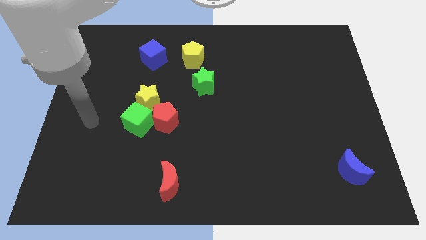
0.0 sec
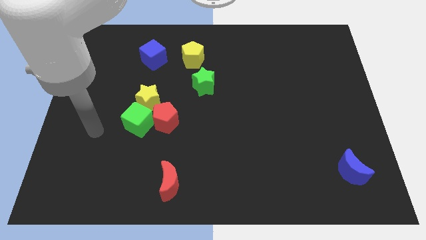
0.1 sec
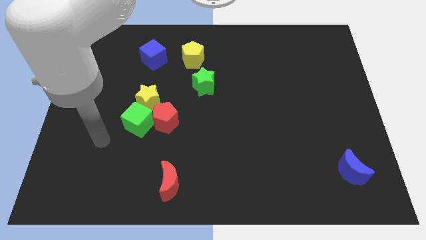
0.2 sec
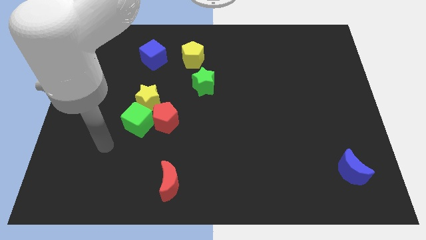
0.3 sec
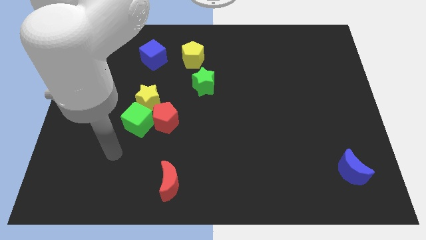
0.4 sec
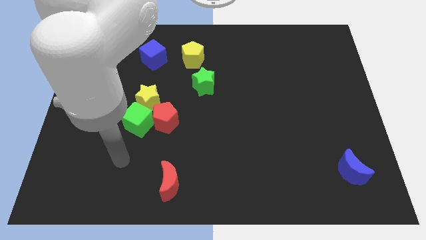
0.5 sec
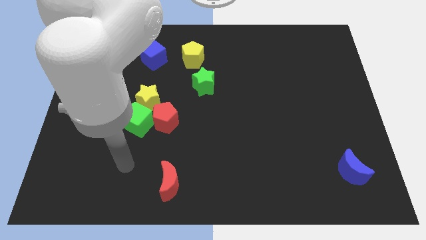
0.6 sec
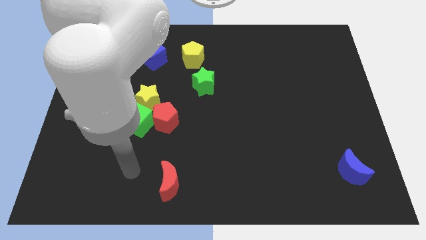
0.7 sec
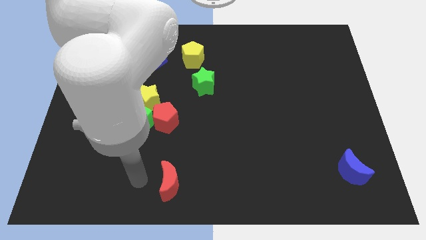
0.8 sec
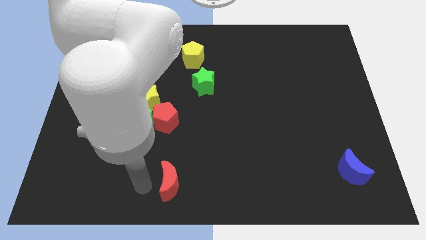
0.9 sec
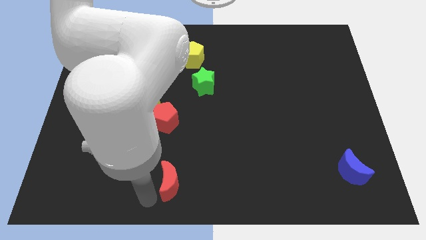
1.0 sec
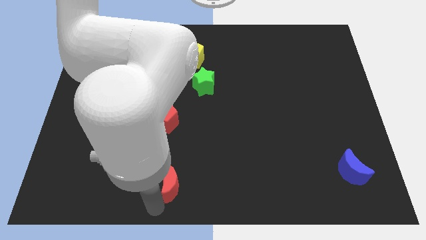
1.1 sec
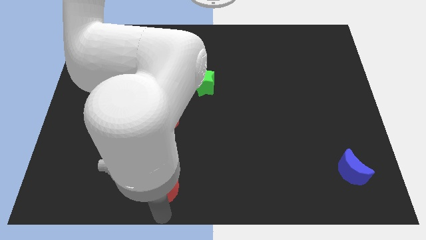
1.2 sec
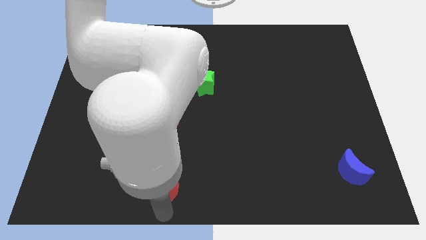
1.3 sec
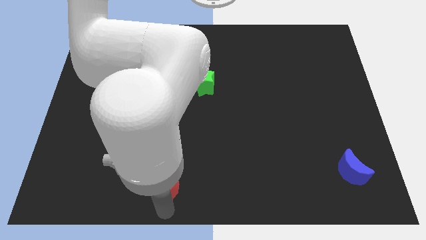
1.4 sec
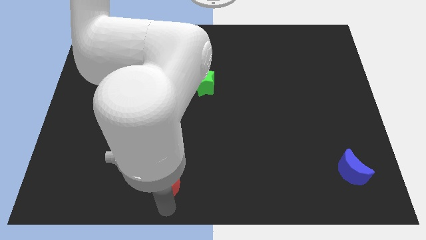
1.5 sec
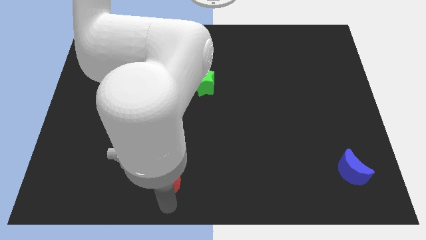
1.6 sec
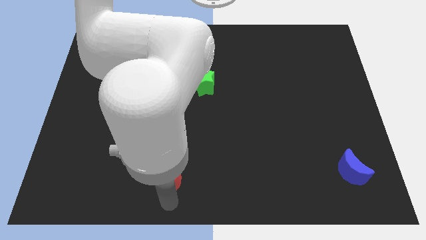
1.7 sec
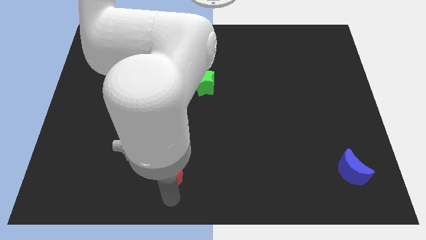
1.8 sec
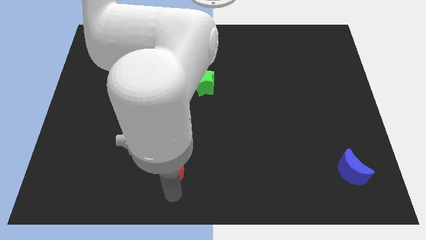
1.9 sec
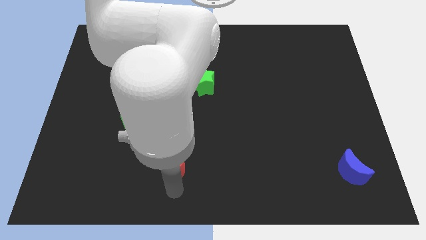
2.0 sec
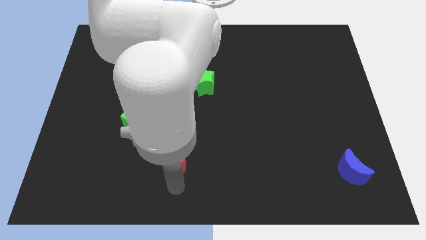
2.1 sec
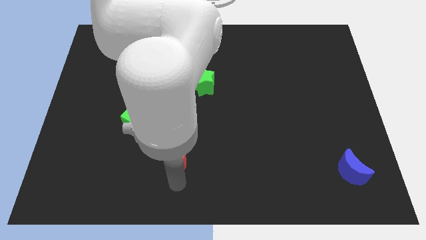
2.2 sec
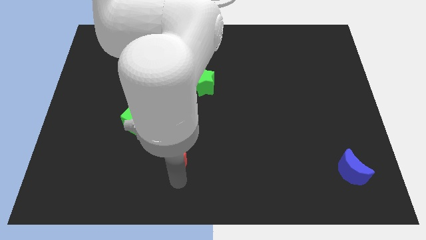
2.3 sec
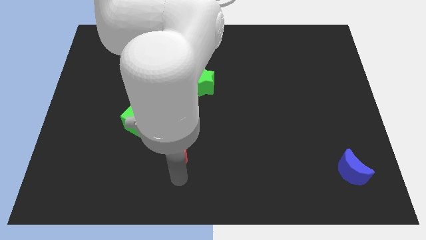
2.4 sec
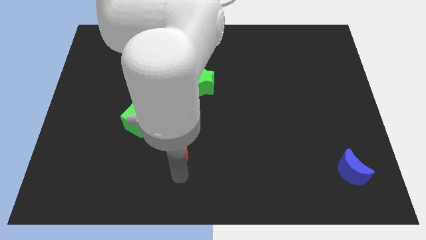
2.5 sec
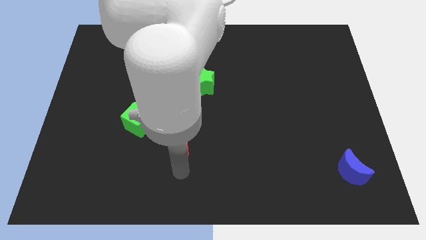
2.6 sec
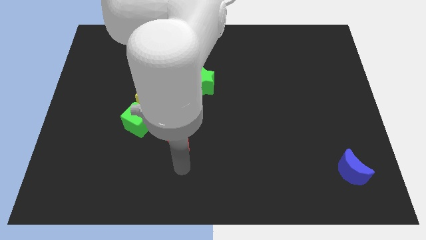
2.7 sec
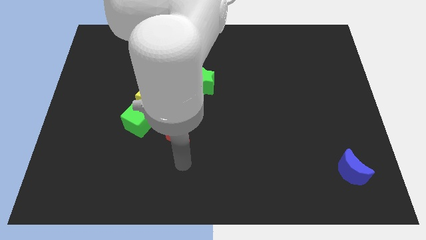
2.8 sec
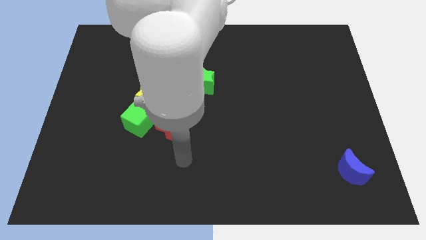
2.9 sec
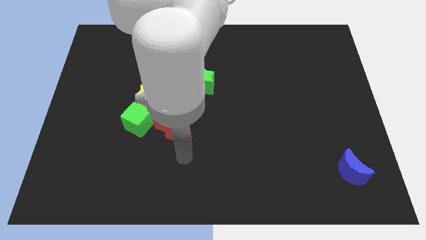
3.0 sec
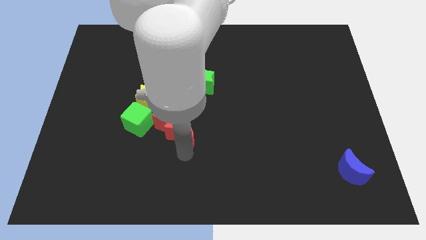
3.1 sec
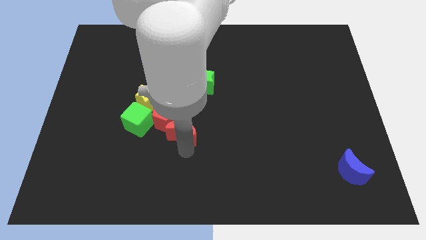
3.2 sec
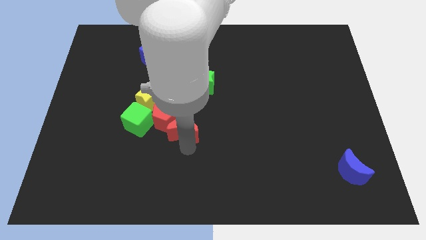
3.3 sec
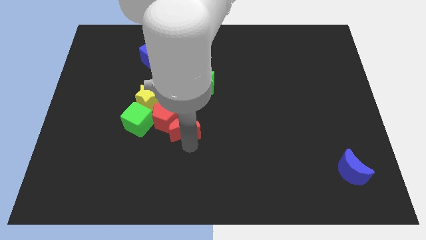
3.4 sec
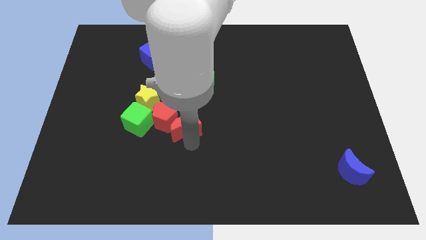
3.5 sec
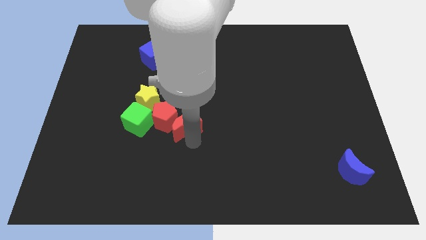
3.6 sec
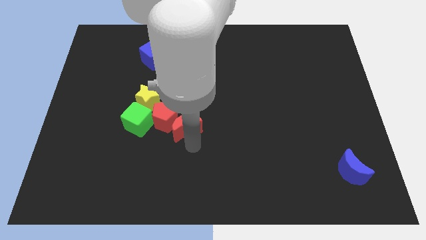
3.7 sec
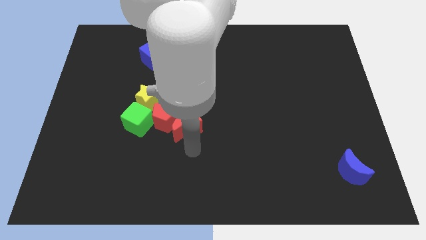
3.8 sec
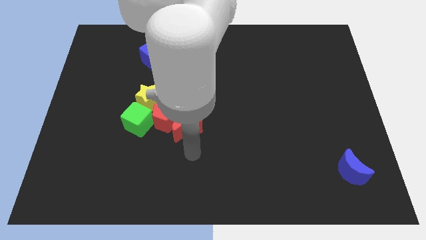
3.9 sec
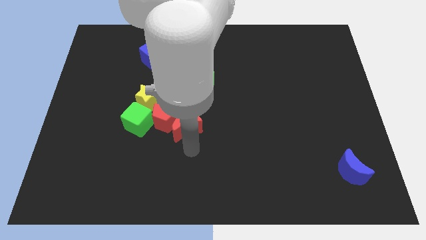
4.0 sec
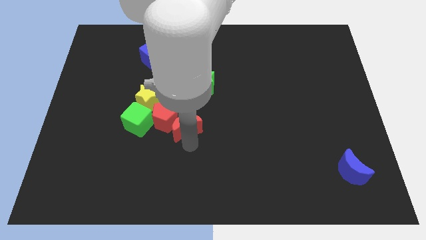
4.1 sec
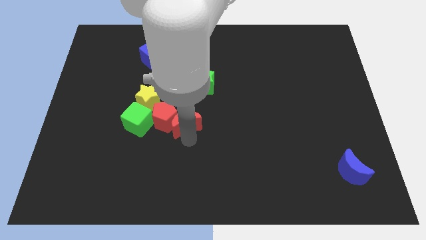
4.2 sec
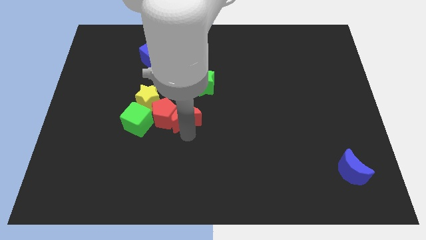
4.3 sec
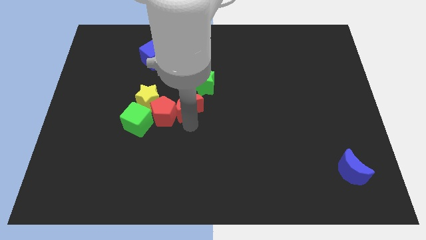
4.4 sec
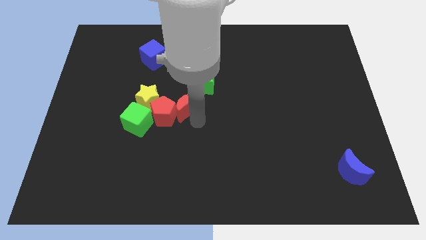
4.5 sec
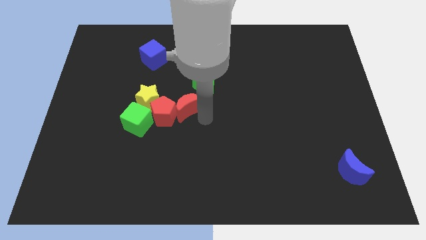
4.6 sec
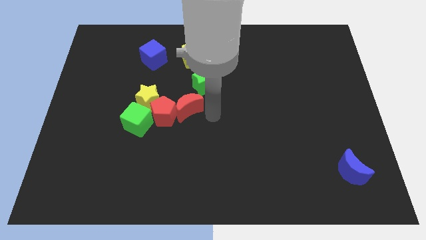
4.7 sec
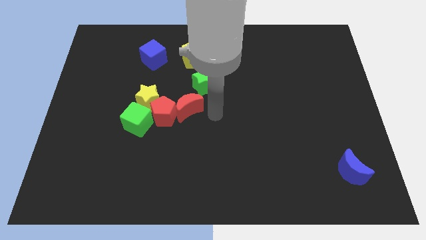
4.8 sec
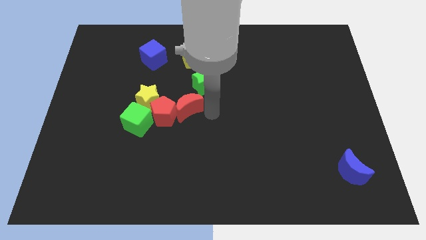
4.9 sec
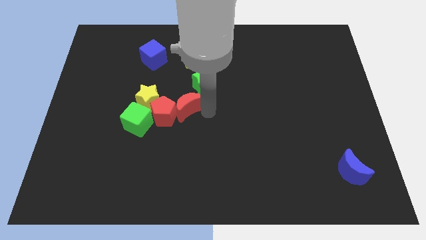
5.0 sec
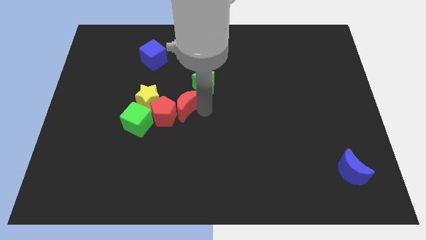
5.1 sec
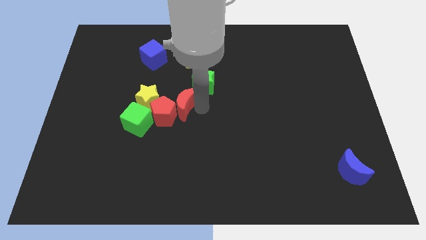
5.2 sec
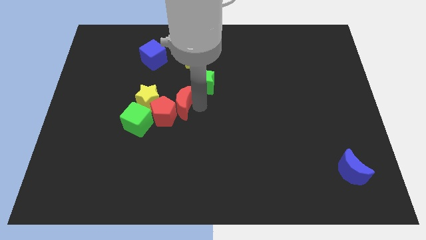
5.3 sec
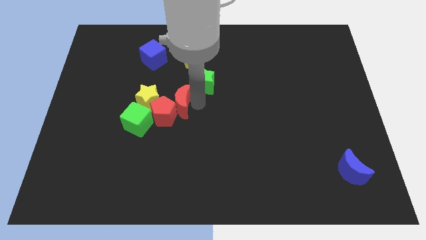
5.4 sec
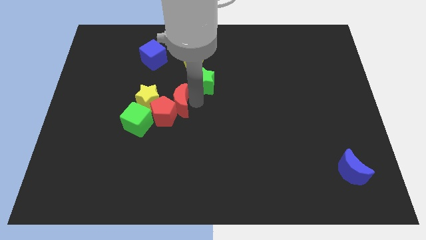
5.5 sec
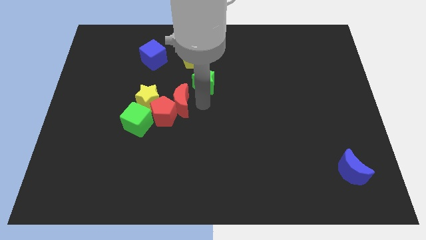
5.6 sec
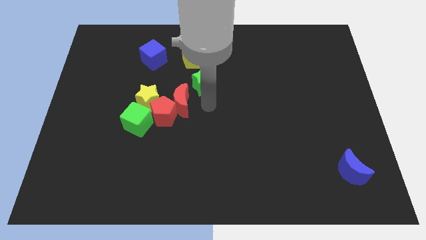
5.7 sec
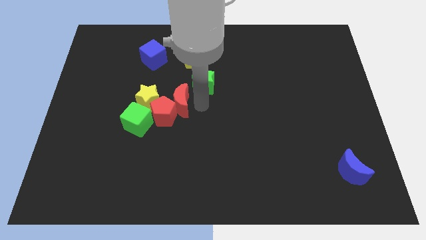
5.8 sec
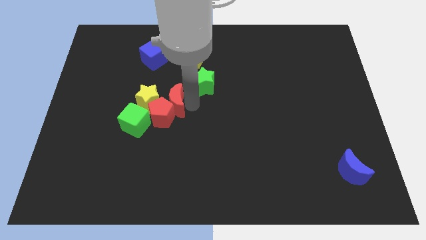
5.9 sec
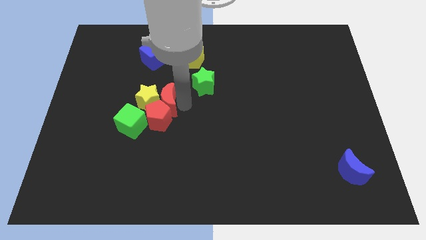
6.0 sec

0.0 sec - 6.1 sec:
push the red moon close to the yellow star

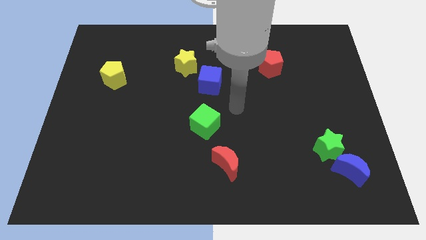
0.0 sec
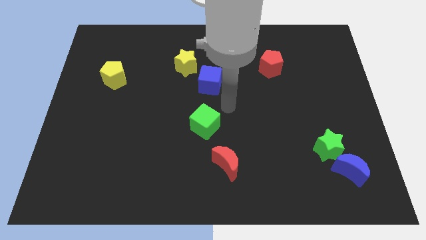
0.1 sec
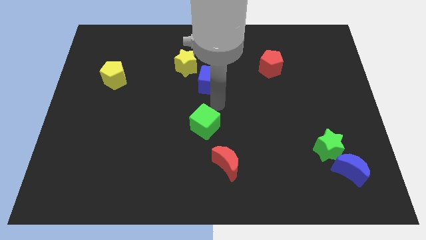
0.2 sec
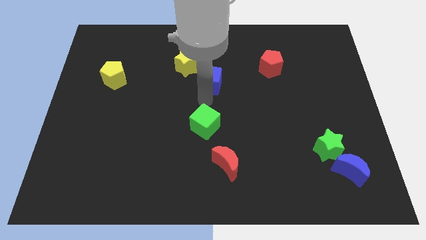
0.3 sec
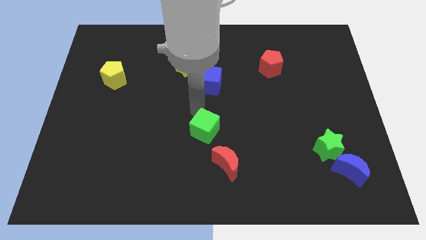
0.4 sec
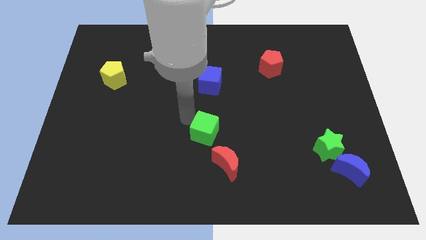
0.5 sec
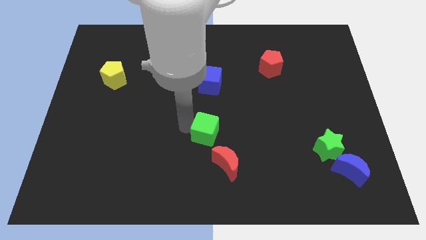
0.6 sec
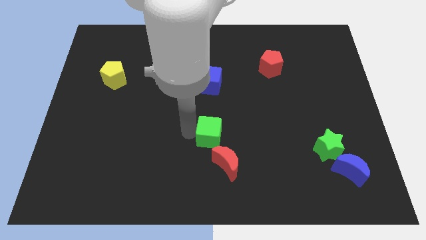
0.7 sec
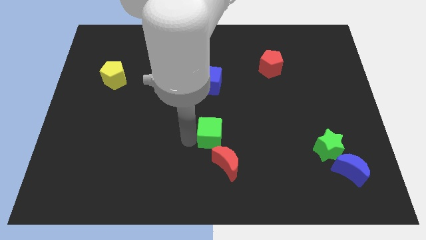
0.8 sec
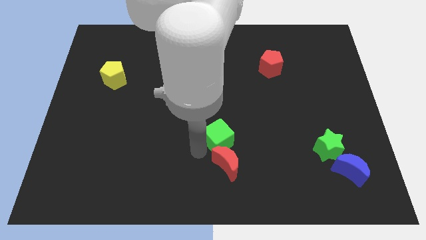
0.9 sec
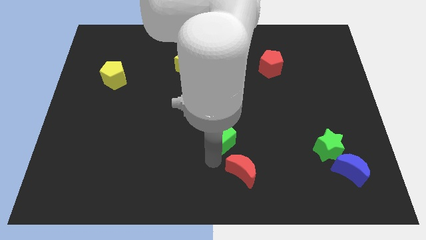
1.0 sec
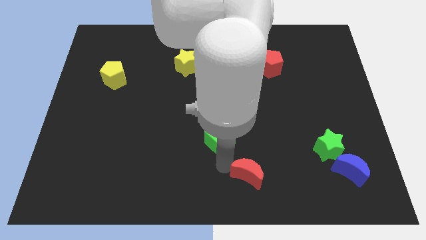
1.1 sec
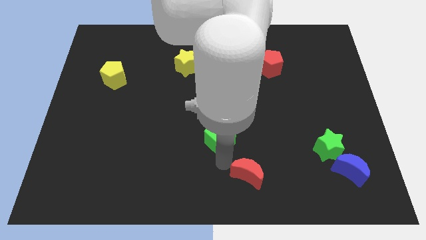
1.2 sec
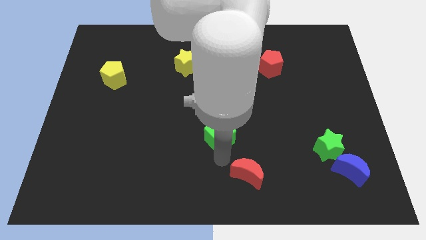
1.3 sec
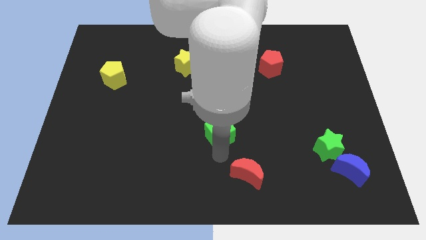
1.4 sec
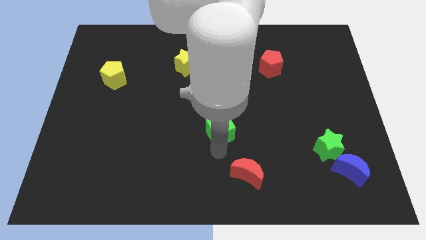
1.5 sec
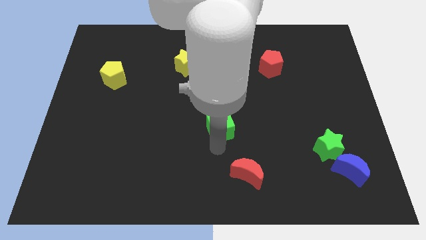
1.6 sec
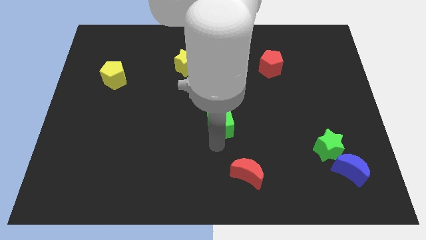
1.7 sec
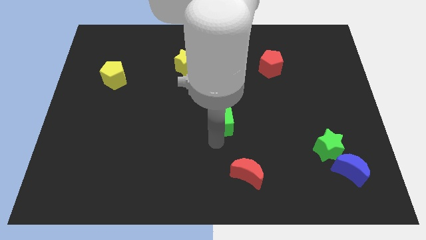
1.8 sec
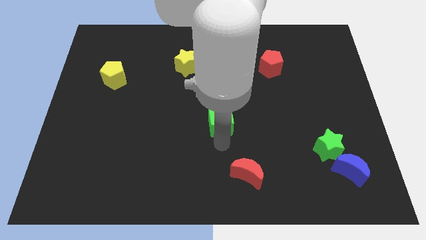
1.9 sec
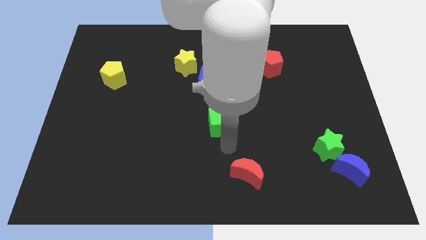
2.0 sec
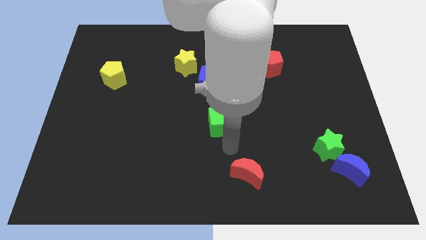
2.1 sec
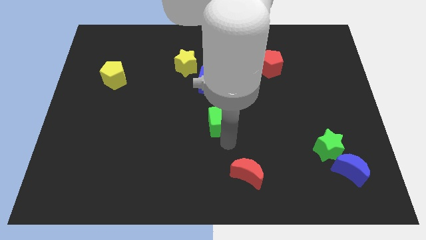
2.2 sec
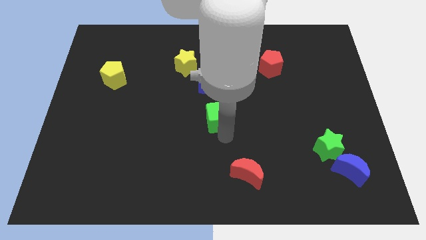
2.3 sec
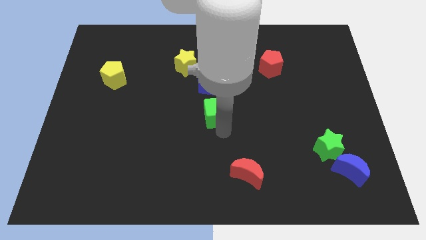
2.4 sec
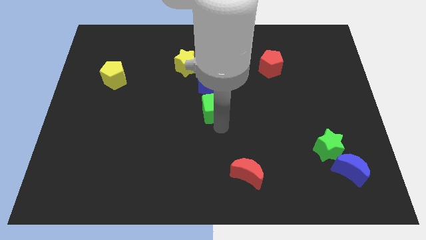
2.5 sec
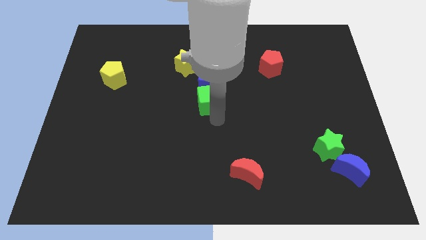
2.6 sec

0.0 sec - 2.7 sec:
push the green cube next to the blue cube
